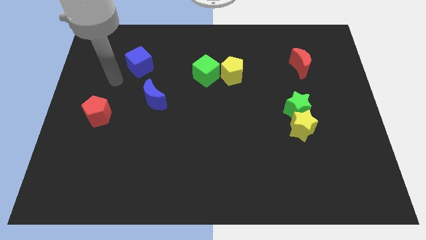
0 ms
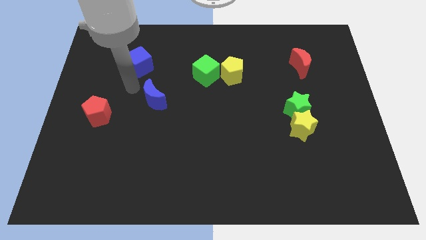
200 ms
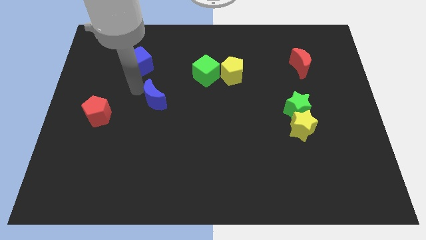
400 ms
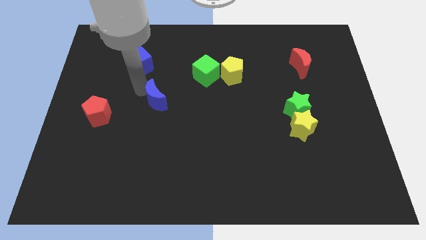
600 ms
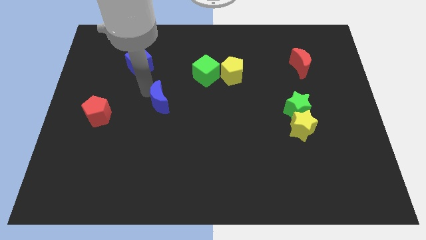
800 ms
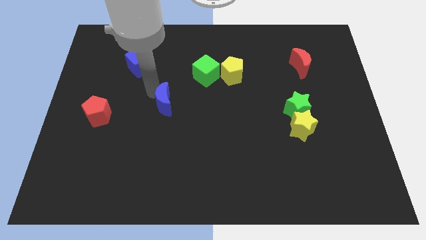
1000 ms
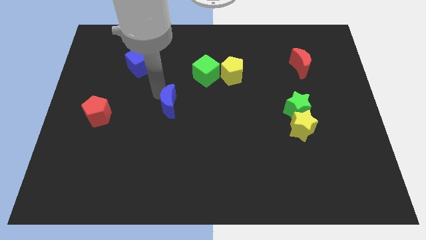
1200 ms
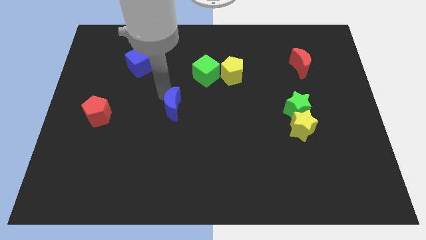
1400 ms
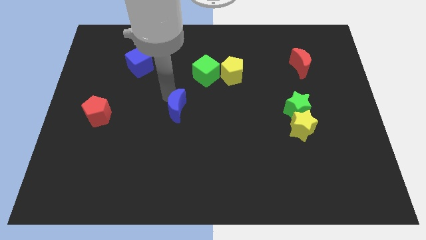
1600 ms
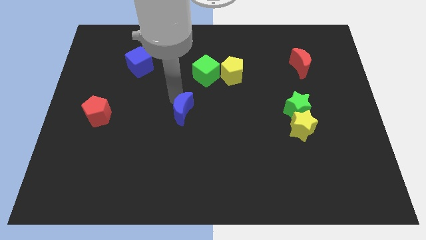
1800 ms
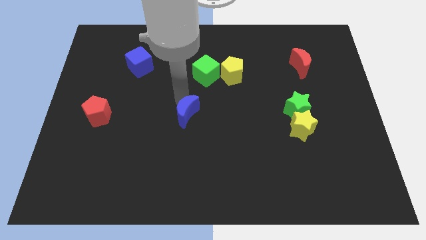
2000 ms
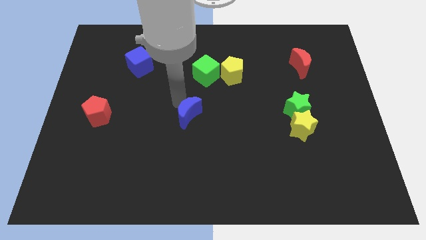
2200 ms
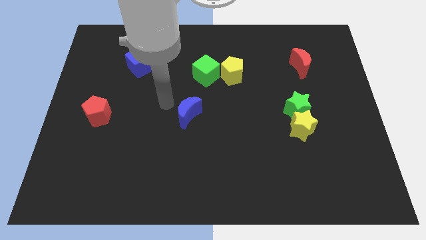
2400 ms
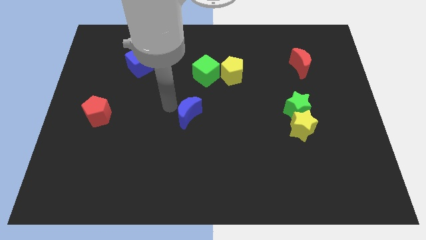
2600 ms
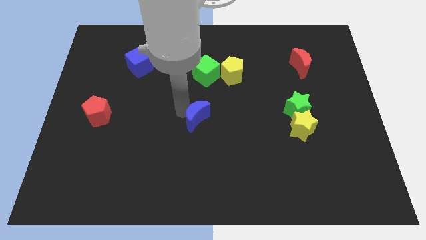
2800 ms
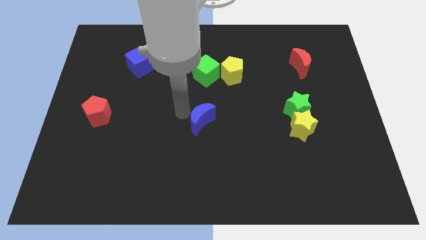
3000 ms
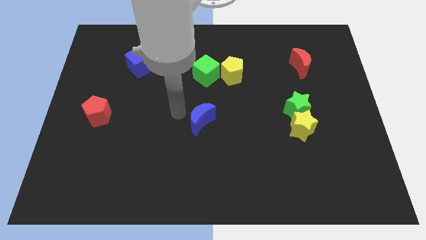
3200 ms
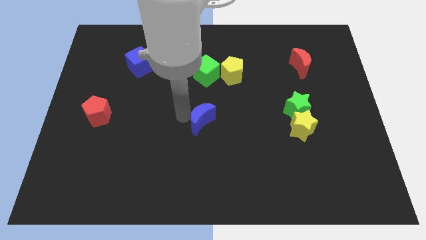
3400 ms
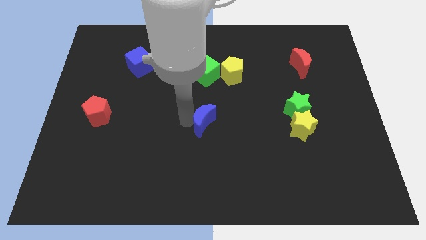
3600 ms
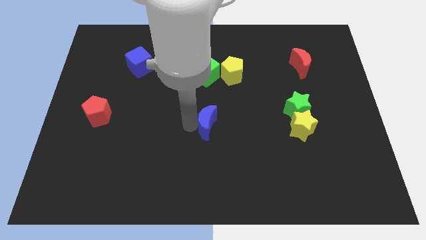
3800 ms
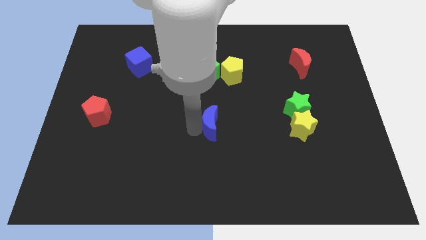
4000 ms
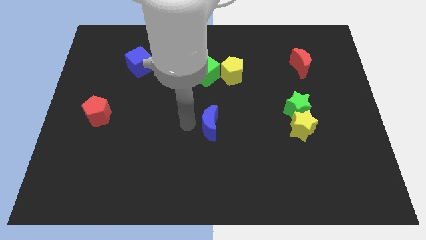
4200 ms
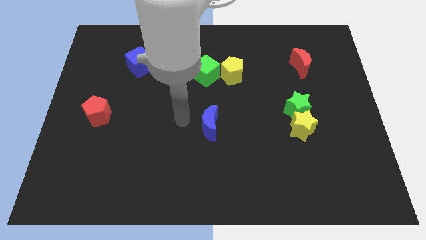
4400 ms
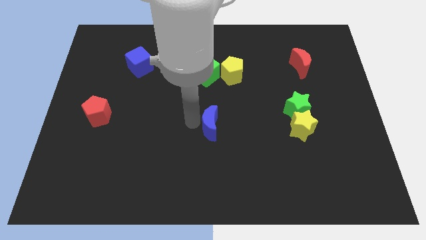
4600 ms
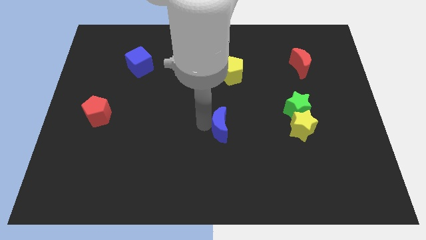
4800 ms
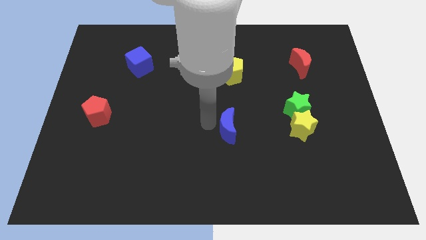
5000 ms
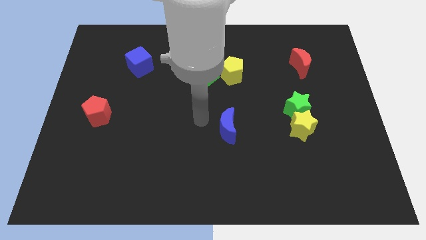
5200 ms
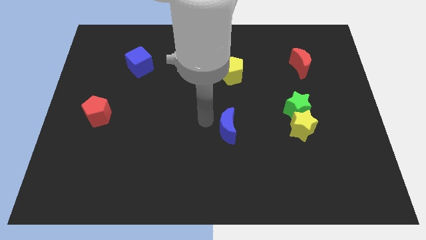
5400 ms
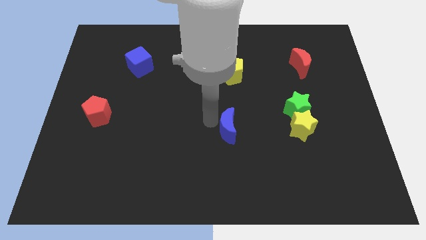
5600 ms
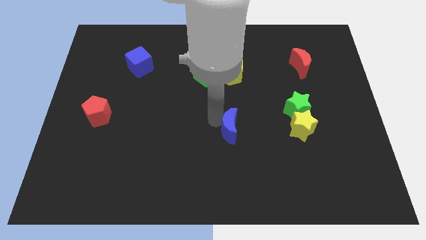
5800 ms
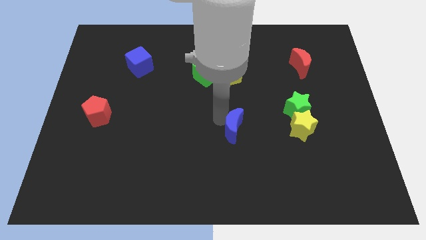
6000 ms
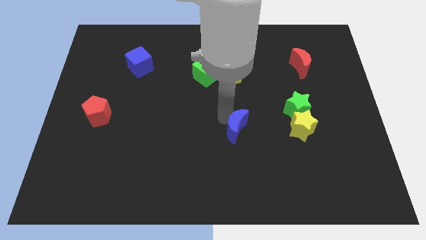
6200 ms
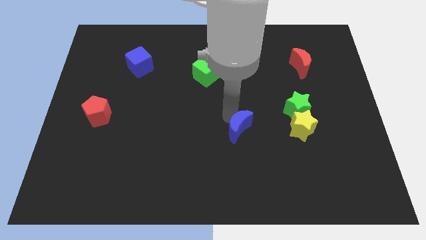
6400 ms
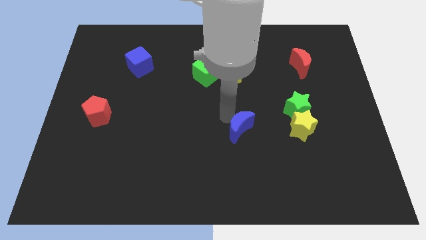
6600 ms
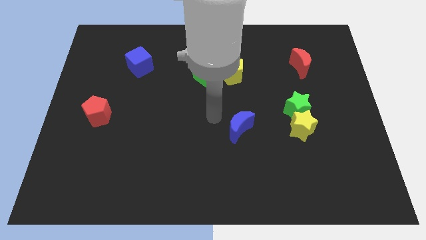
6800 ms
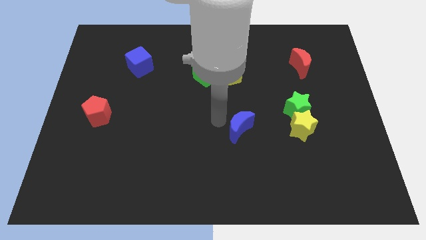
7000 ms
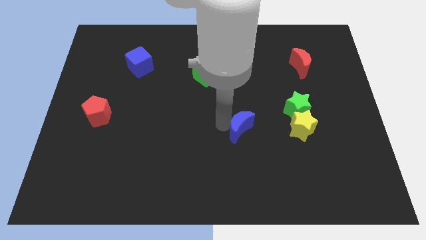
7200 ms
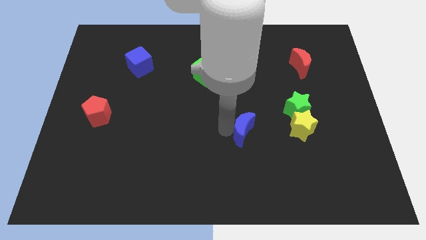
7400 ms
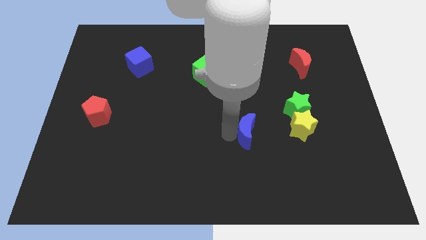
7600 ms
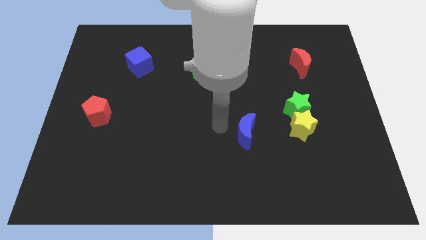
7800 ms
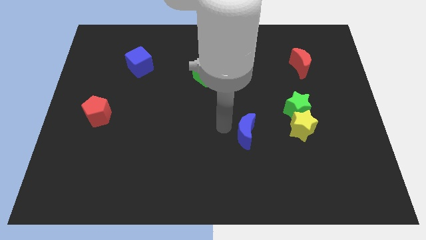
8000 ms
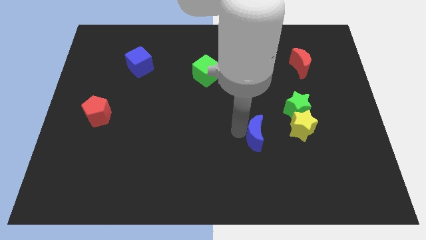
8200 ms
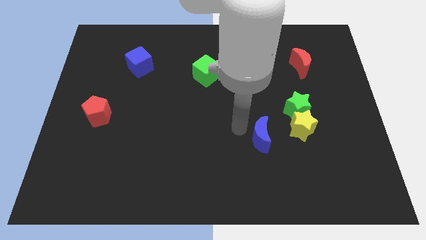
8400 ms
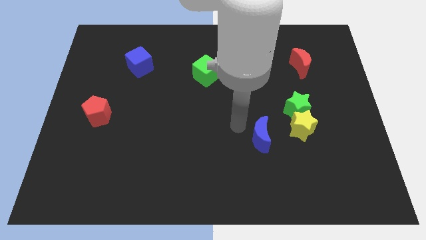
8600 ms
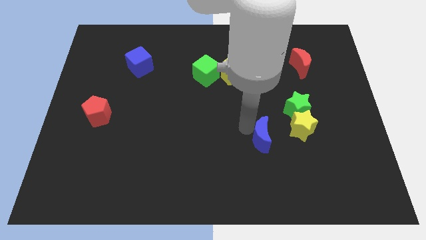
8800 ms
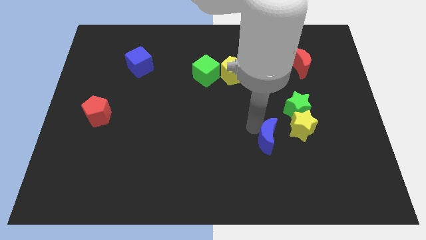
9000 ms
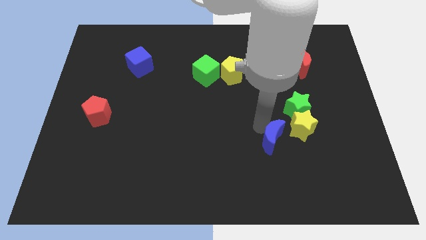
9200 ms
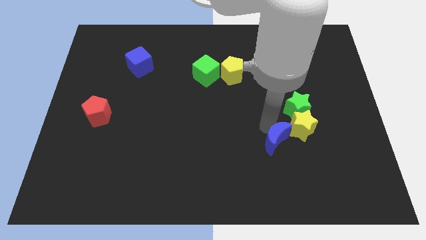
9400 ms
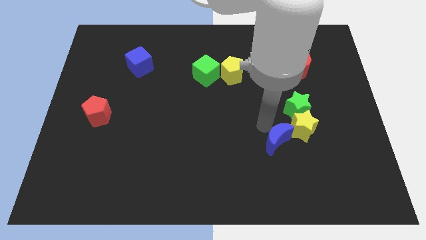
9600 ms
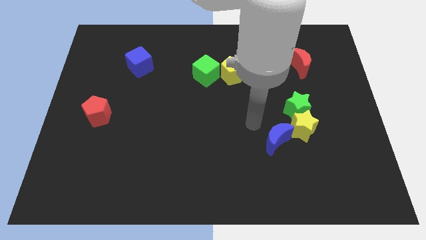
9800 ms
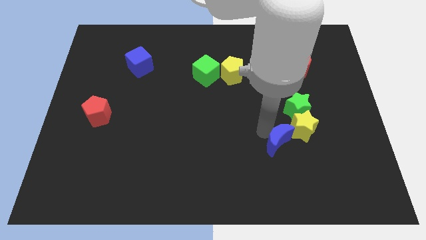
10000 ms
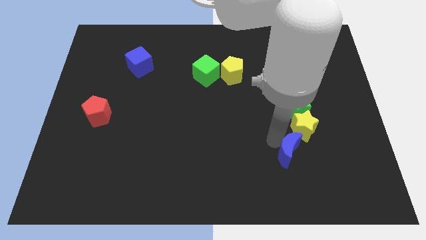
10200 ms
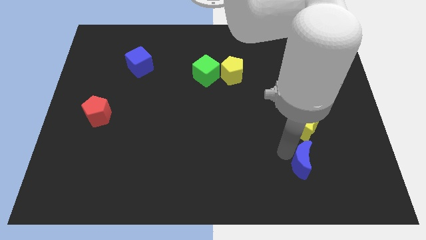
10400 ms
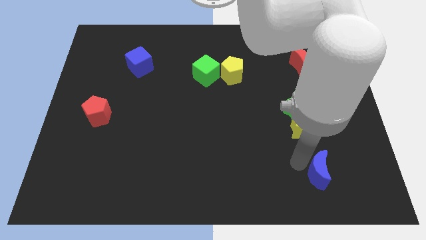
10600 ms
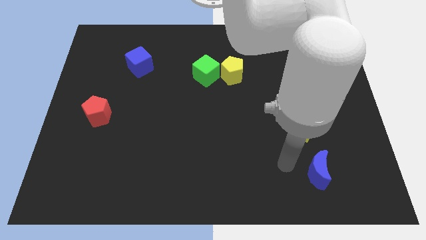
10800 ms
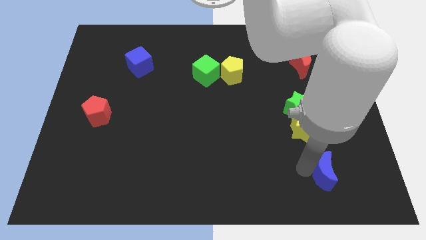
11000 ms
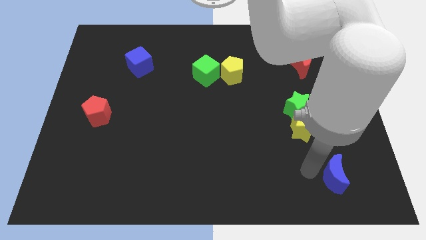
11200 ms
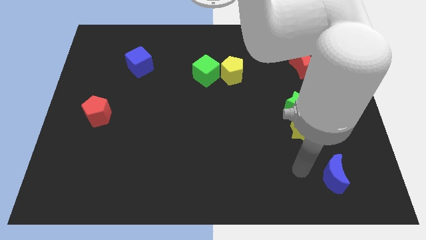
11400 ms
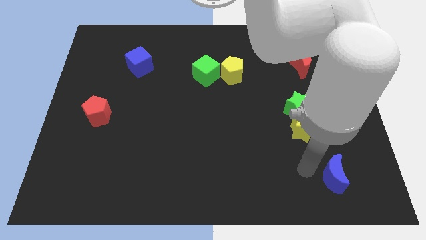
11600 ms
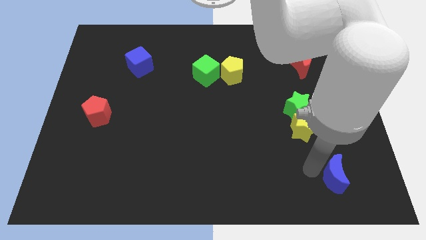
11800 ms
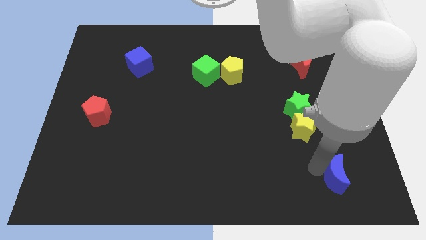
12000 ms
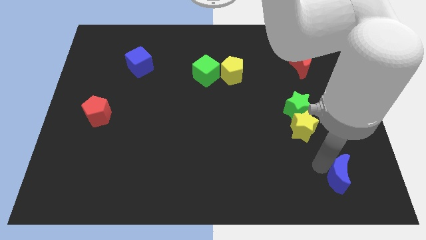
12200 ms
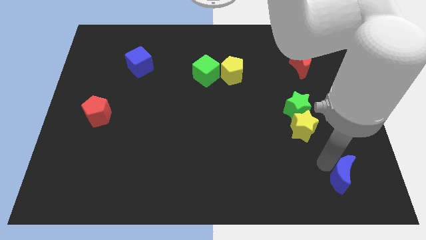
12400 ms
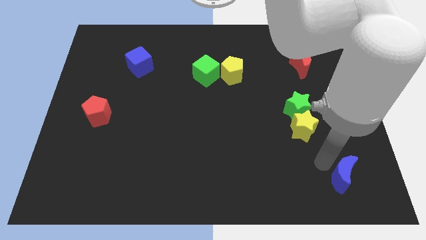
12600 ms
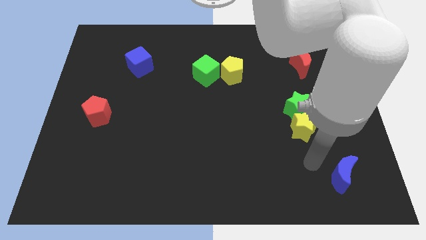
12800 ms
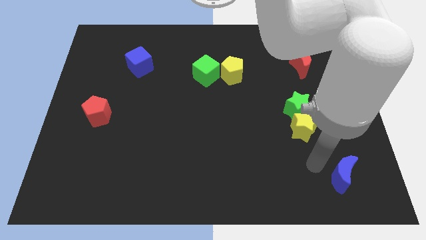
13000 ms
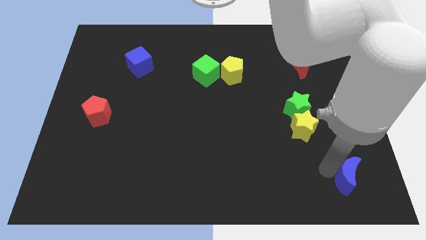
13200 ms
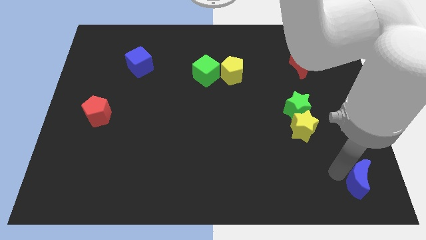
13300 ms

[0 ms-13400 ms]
put the blue moon to the bottom right
